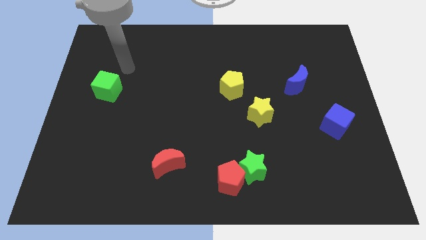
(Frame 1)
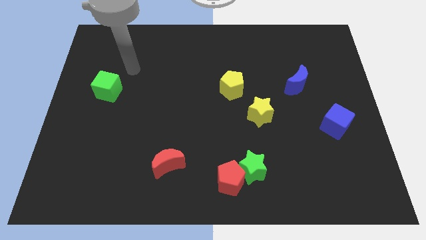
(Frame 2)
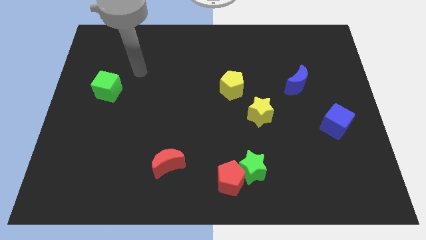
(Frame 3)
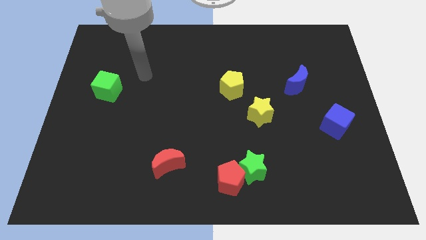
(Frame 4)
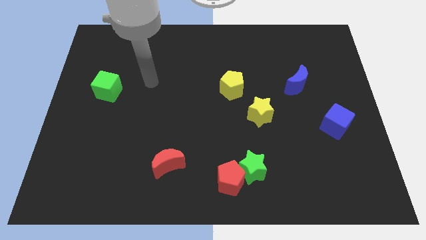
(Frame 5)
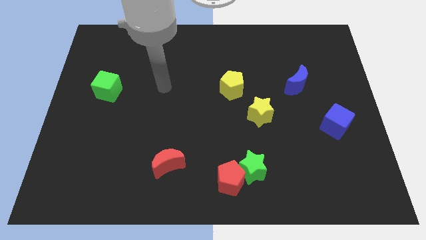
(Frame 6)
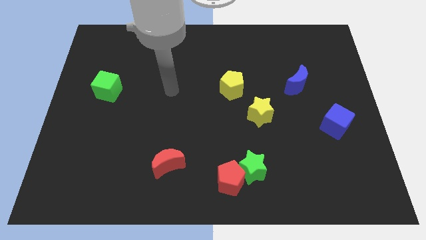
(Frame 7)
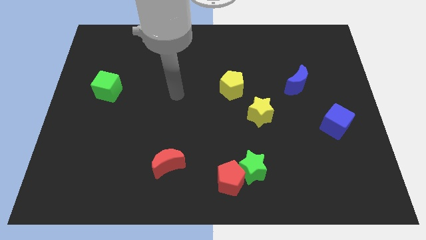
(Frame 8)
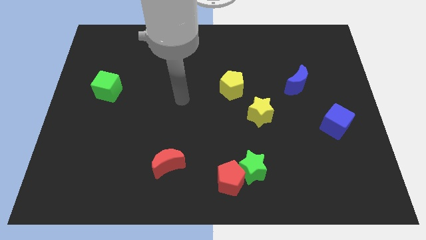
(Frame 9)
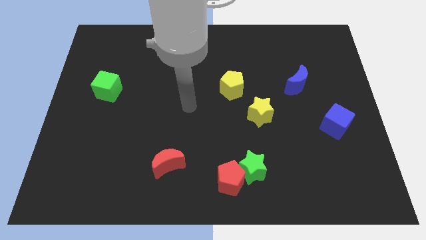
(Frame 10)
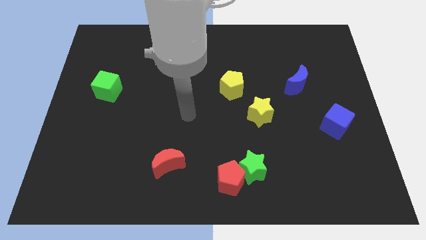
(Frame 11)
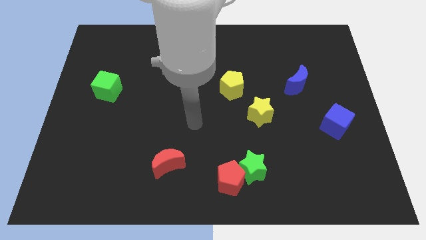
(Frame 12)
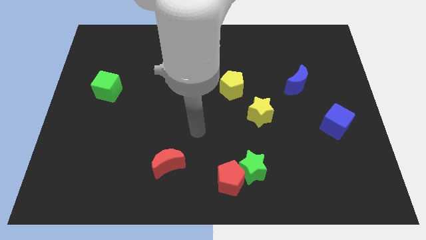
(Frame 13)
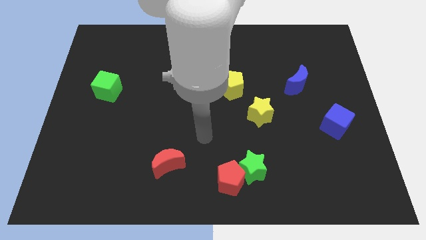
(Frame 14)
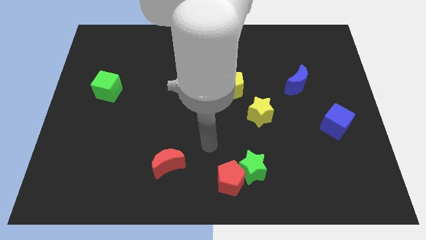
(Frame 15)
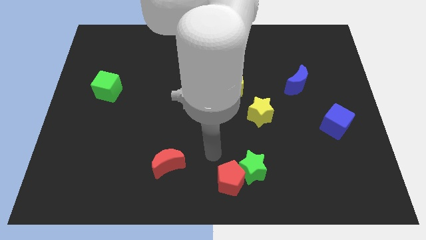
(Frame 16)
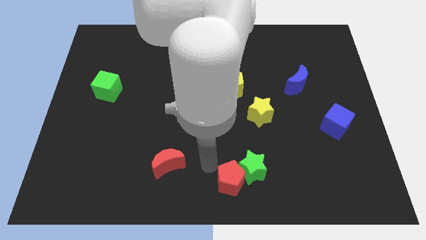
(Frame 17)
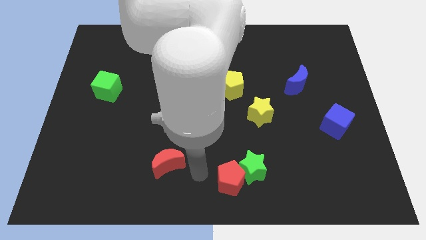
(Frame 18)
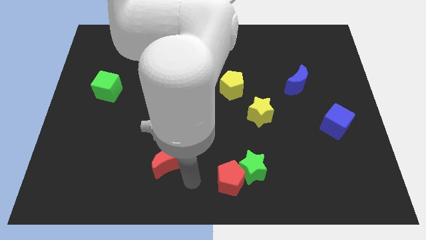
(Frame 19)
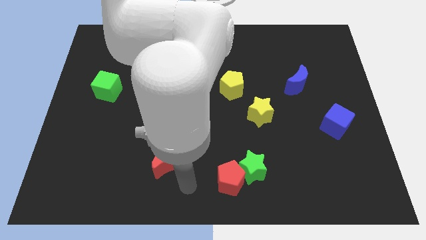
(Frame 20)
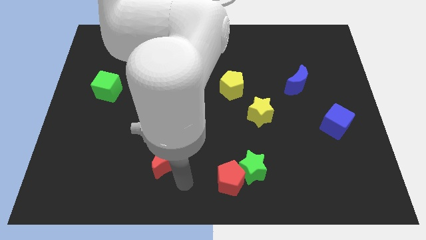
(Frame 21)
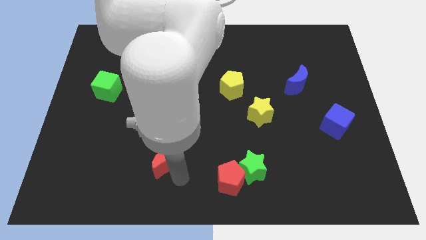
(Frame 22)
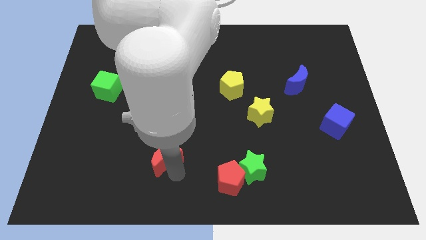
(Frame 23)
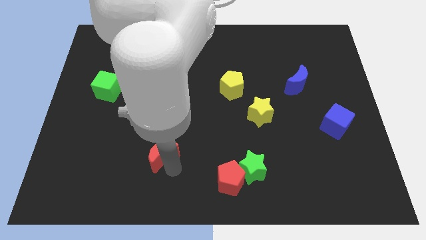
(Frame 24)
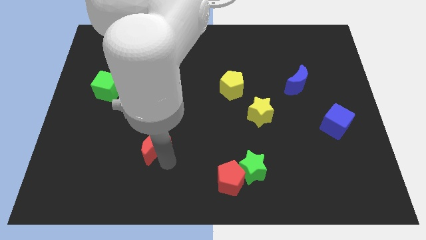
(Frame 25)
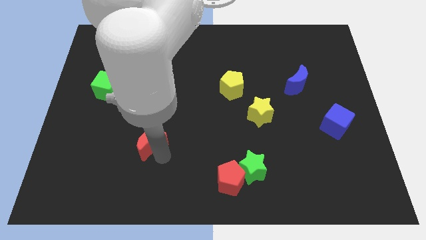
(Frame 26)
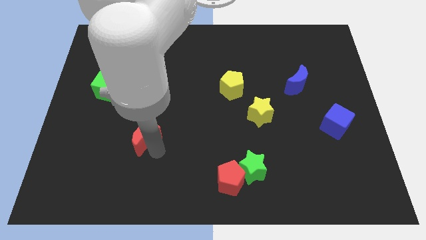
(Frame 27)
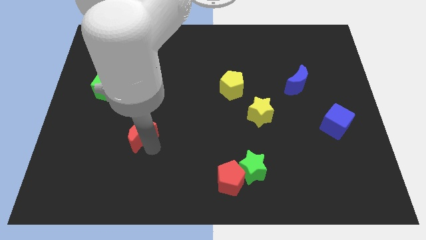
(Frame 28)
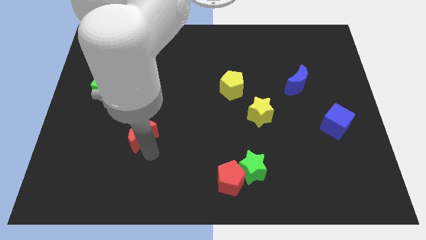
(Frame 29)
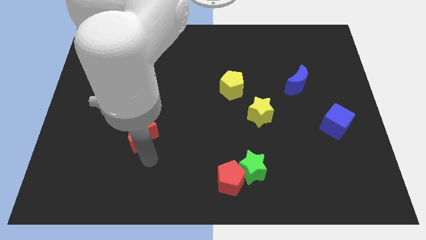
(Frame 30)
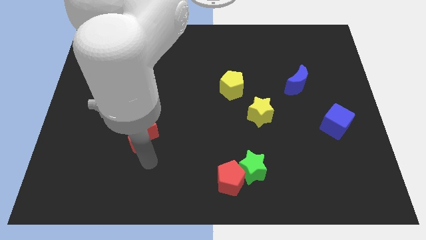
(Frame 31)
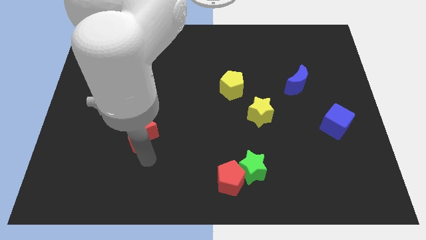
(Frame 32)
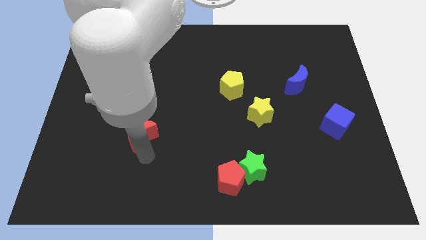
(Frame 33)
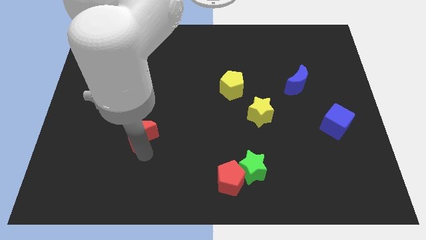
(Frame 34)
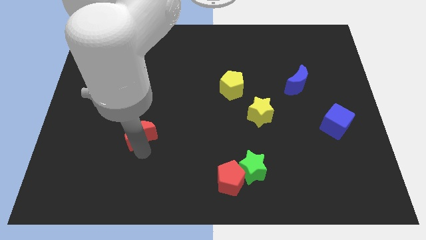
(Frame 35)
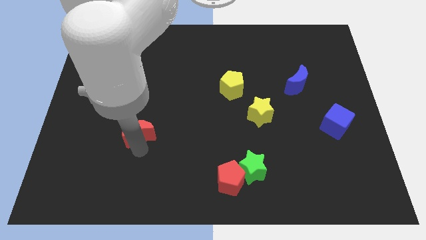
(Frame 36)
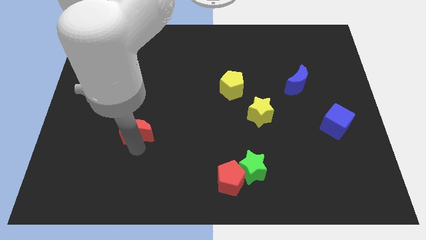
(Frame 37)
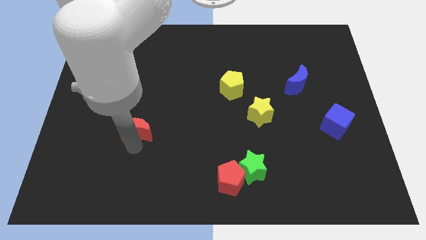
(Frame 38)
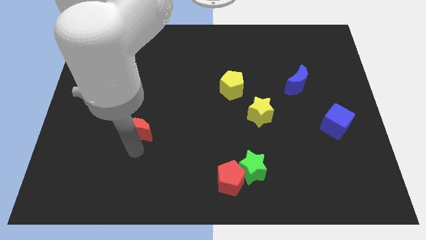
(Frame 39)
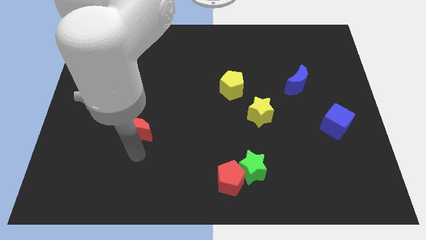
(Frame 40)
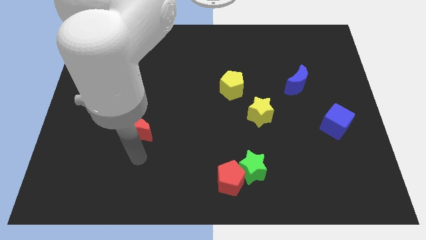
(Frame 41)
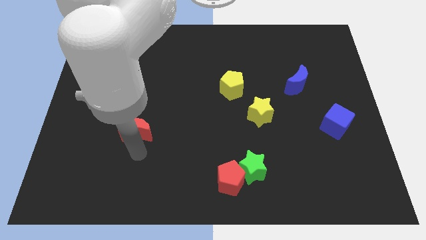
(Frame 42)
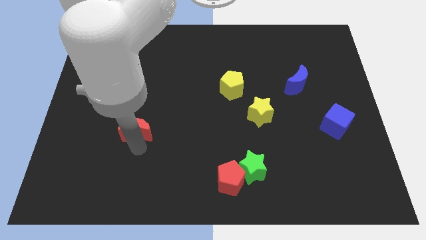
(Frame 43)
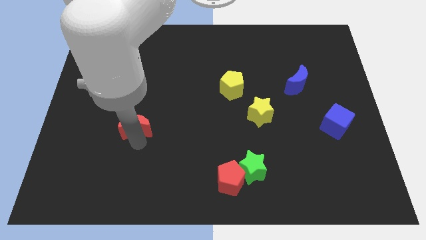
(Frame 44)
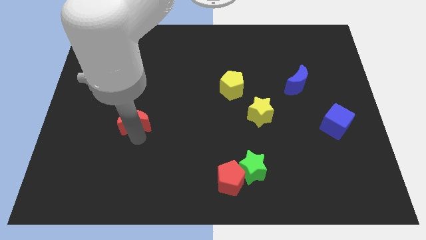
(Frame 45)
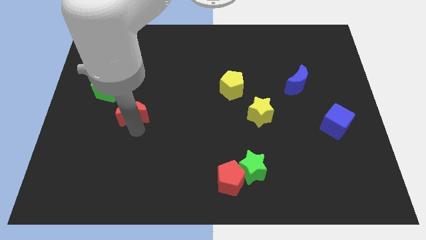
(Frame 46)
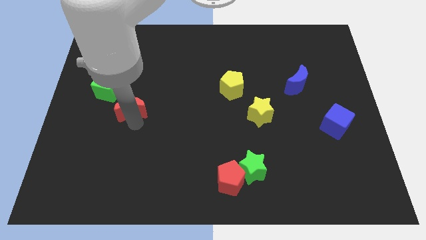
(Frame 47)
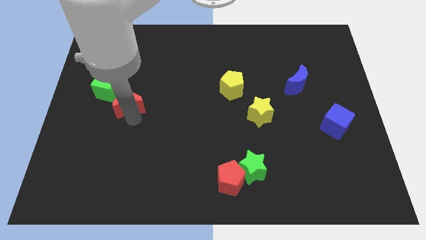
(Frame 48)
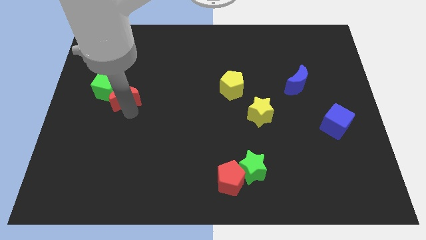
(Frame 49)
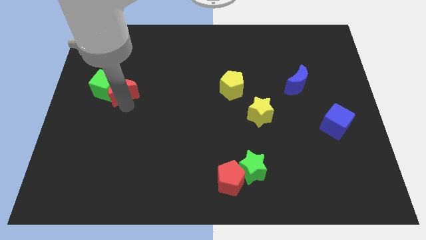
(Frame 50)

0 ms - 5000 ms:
push the red moon to the top right of the green cube

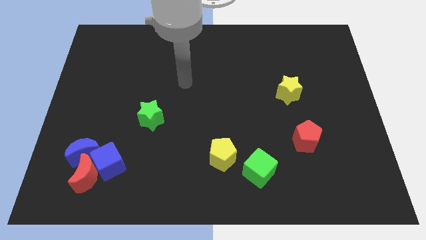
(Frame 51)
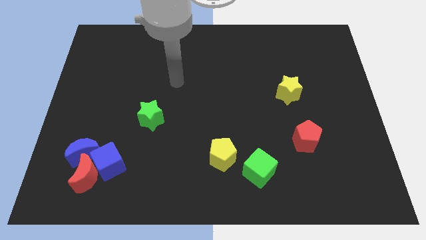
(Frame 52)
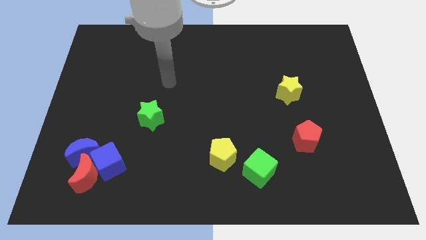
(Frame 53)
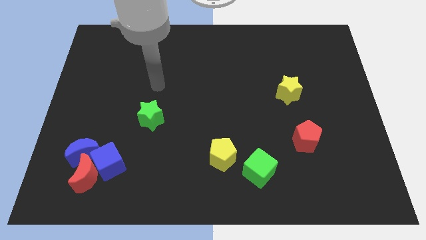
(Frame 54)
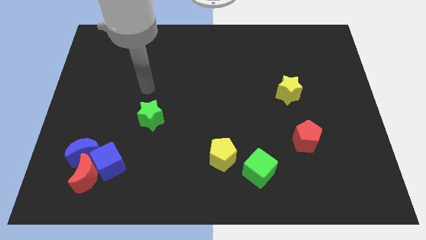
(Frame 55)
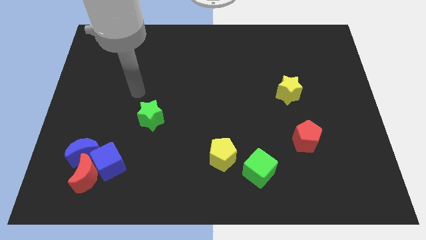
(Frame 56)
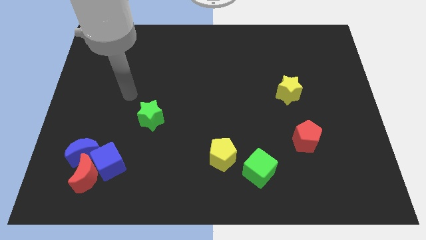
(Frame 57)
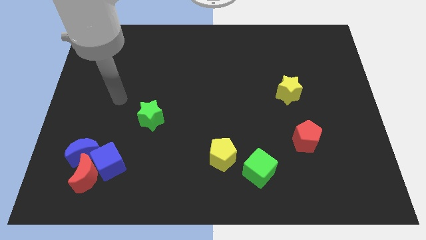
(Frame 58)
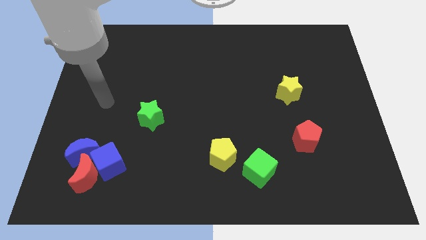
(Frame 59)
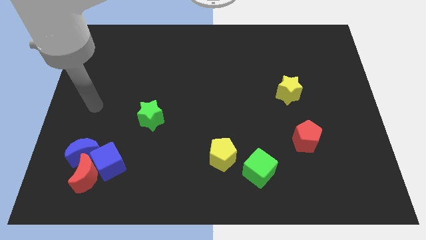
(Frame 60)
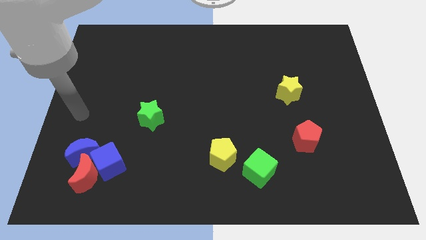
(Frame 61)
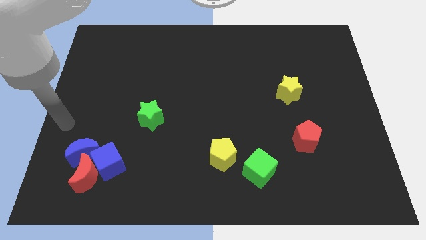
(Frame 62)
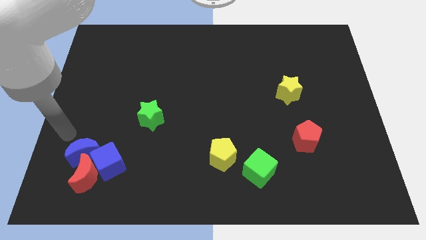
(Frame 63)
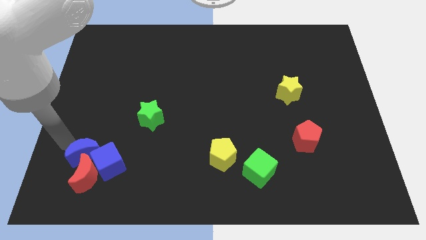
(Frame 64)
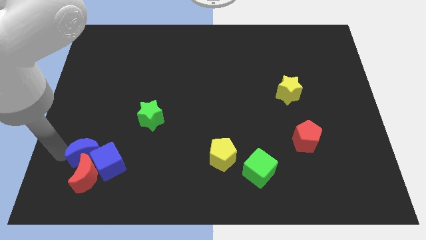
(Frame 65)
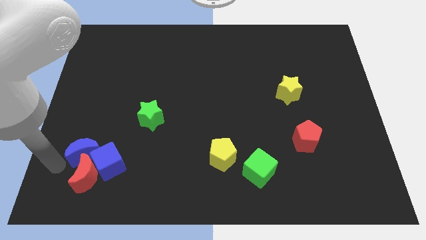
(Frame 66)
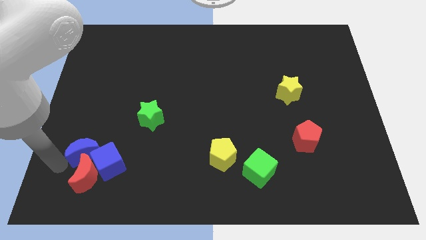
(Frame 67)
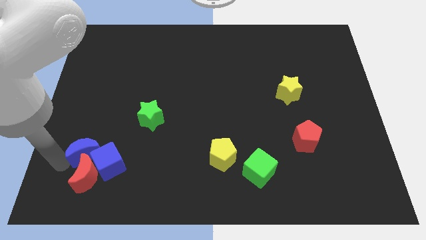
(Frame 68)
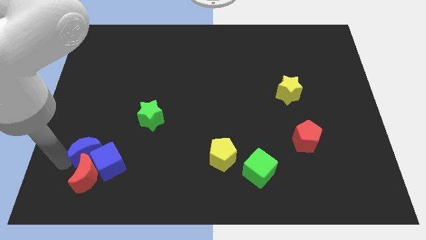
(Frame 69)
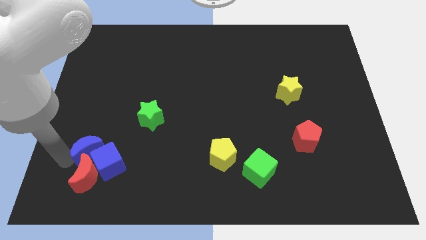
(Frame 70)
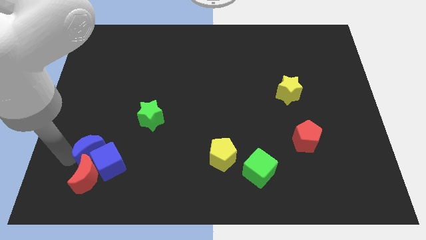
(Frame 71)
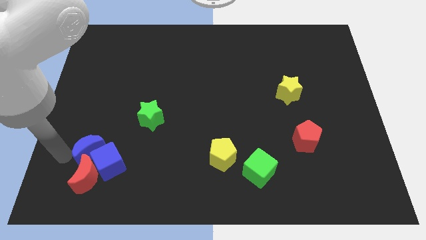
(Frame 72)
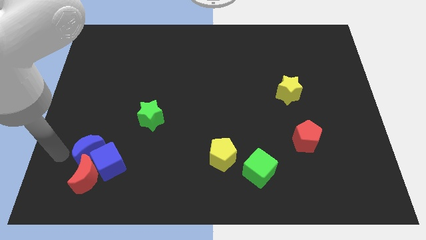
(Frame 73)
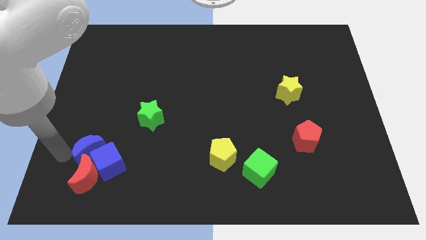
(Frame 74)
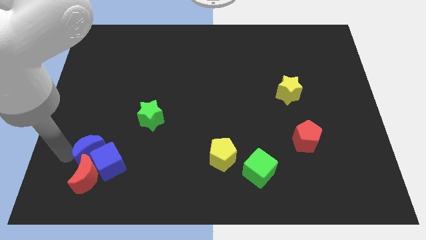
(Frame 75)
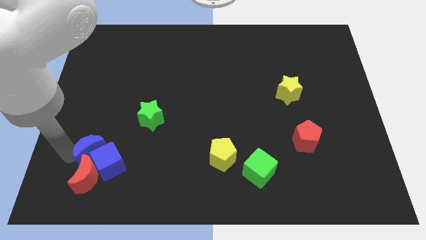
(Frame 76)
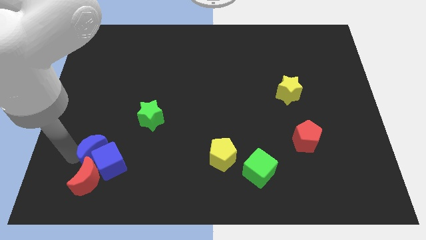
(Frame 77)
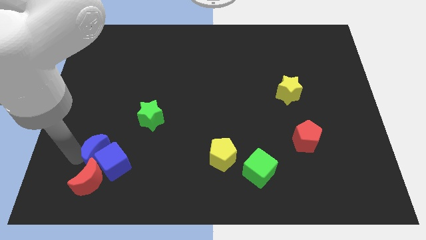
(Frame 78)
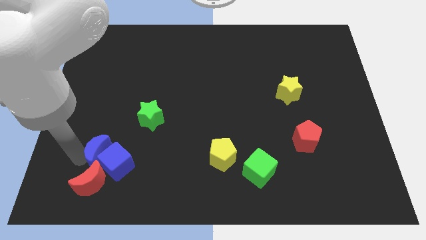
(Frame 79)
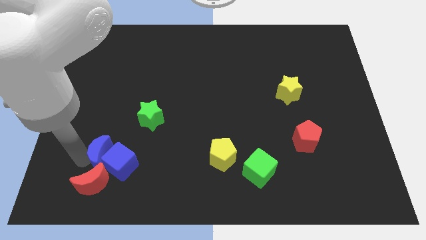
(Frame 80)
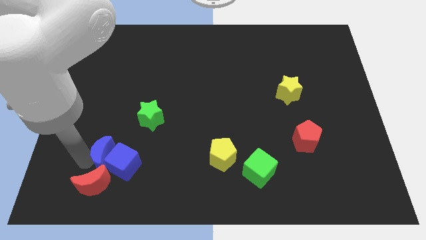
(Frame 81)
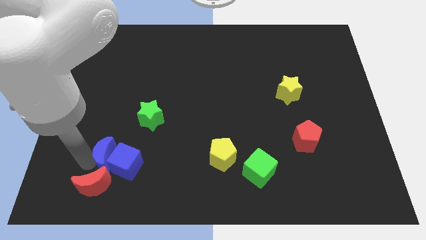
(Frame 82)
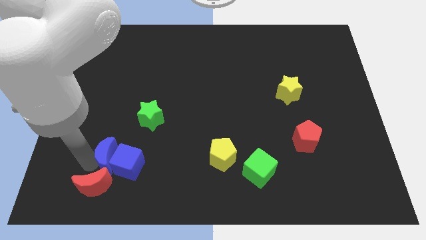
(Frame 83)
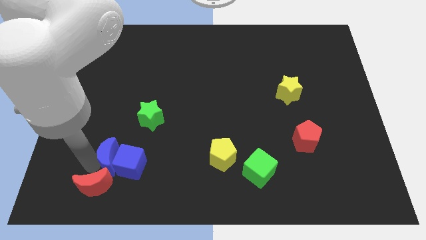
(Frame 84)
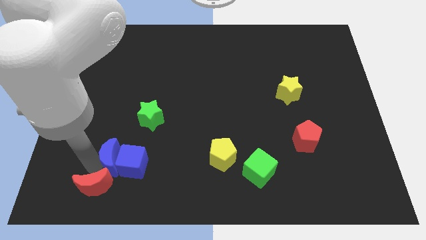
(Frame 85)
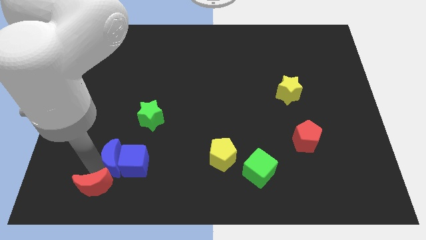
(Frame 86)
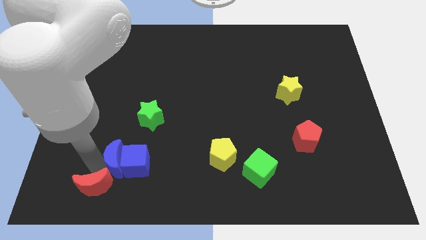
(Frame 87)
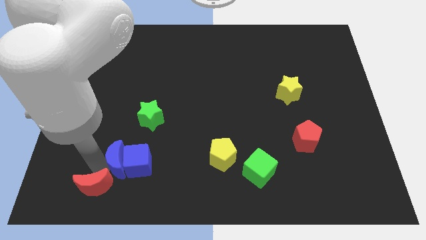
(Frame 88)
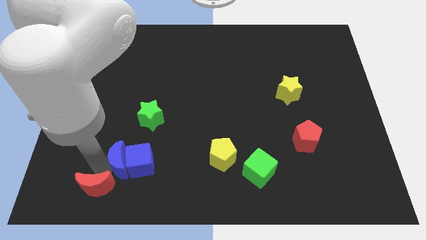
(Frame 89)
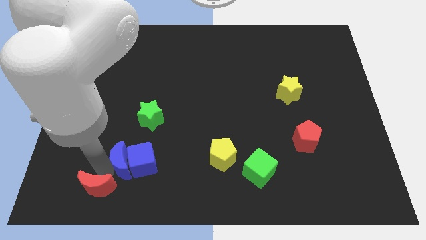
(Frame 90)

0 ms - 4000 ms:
slide the blue moon below the green star
